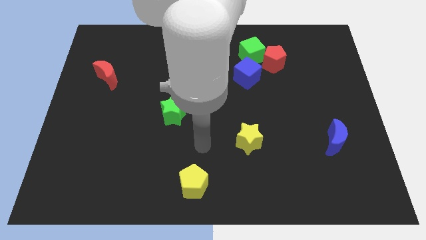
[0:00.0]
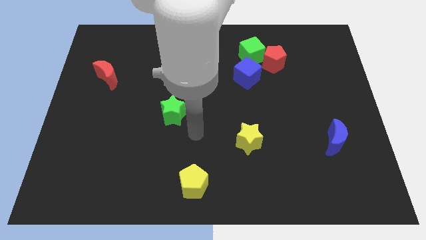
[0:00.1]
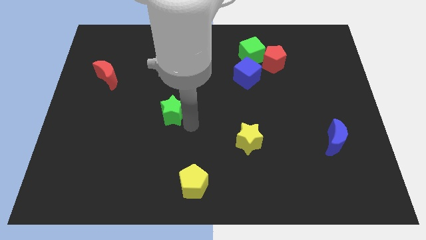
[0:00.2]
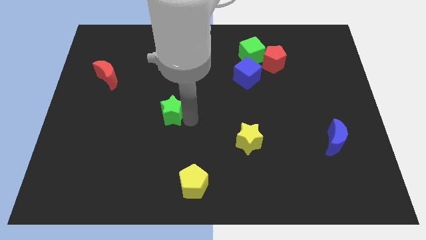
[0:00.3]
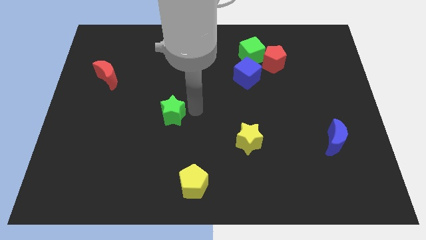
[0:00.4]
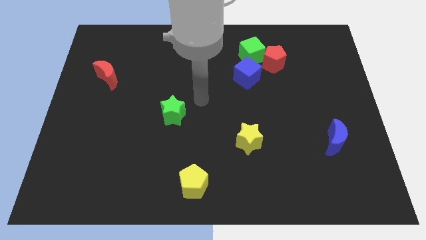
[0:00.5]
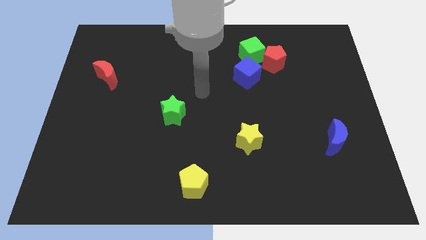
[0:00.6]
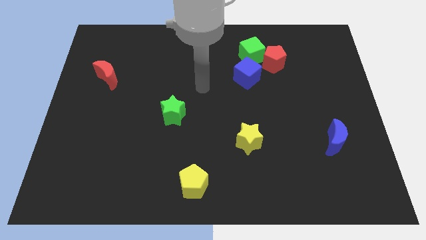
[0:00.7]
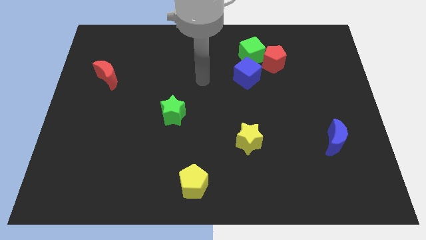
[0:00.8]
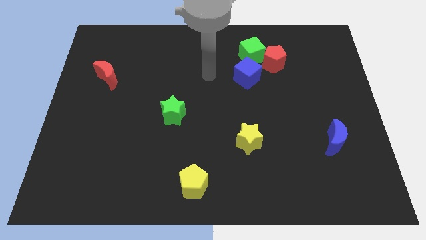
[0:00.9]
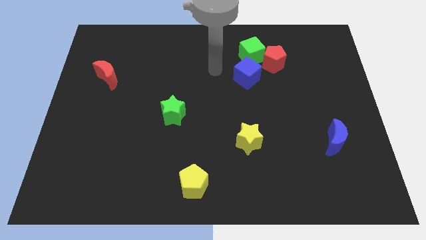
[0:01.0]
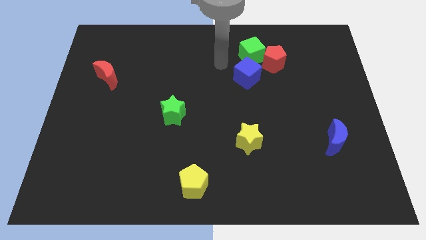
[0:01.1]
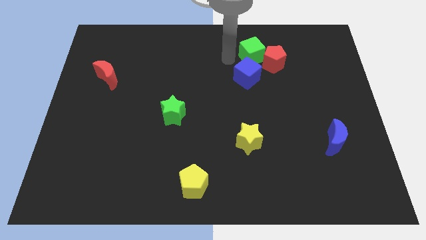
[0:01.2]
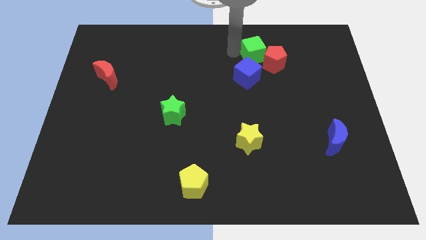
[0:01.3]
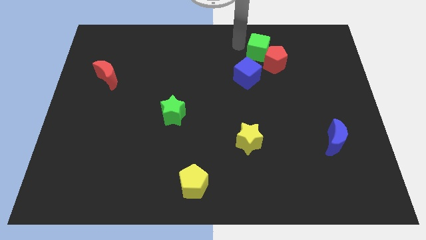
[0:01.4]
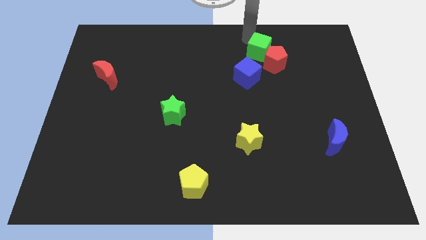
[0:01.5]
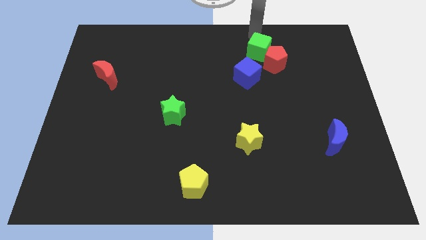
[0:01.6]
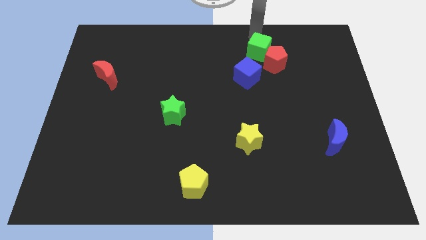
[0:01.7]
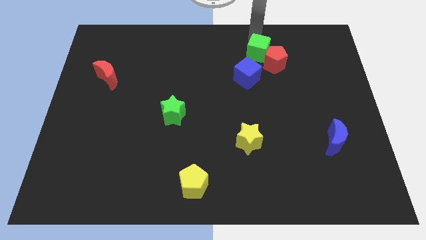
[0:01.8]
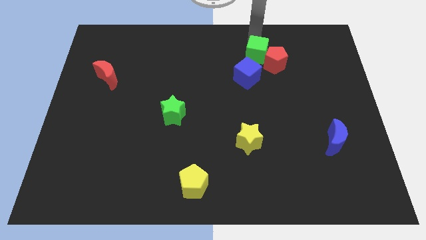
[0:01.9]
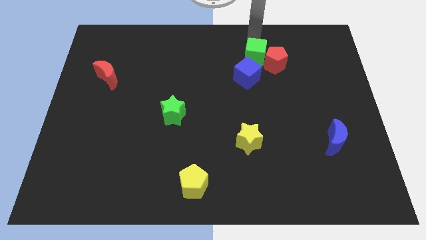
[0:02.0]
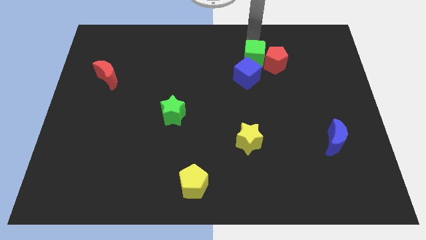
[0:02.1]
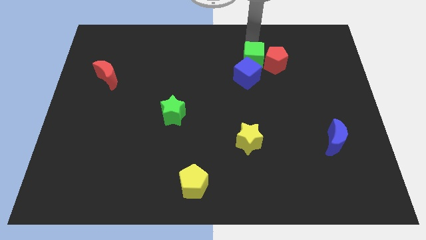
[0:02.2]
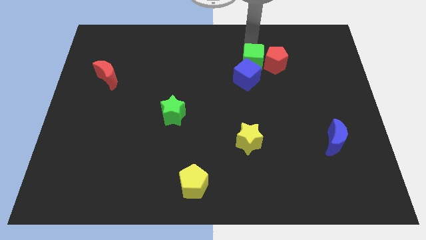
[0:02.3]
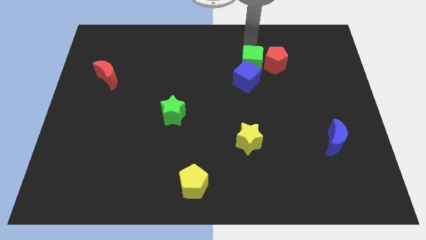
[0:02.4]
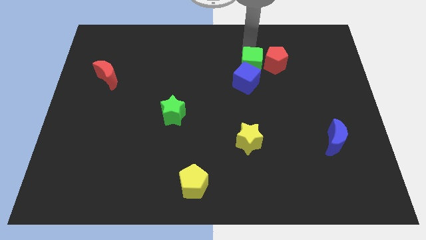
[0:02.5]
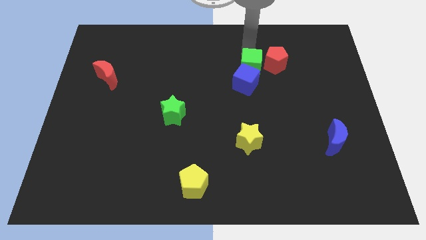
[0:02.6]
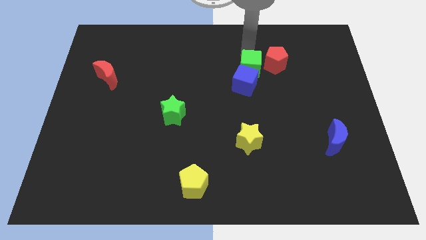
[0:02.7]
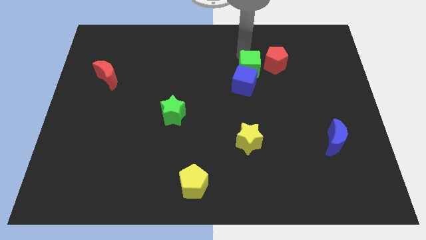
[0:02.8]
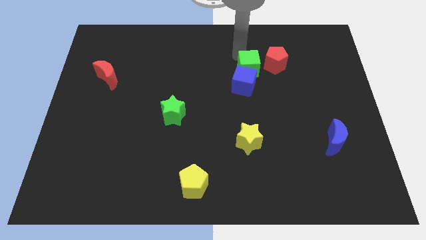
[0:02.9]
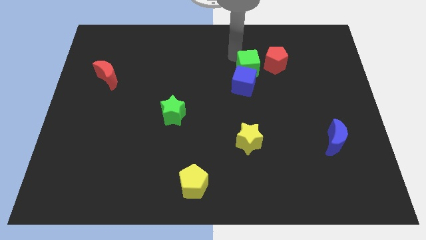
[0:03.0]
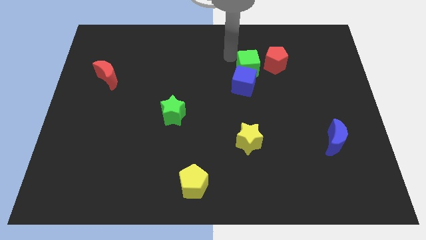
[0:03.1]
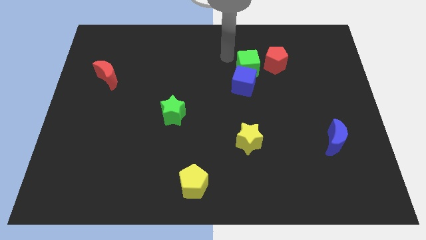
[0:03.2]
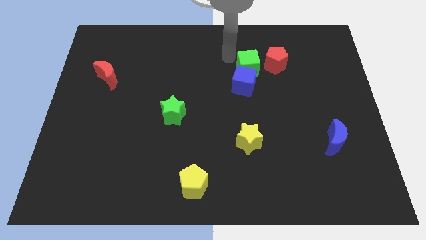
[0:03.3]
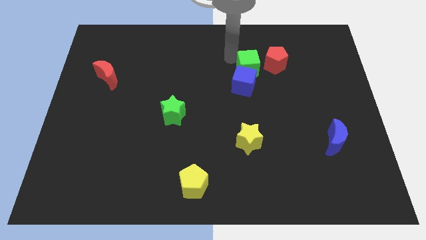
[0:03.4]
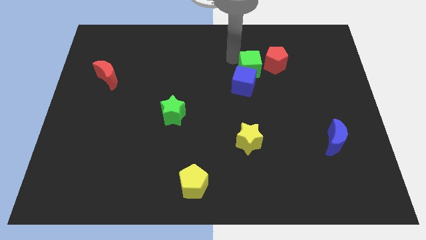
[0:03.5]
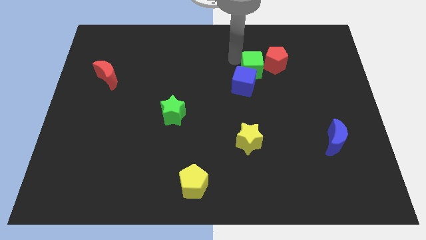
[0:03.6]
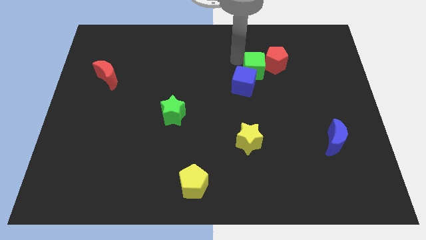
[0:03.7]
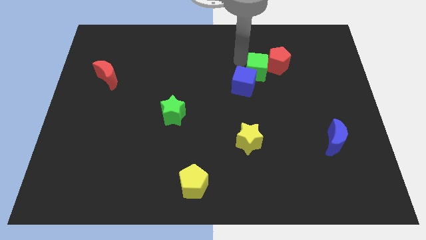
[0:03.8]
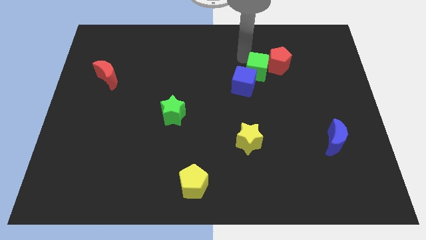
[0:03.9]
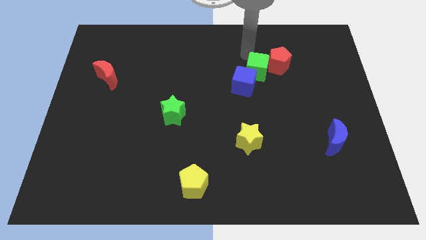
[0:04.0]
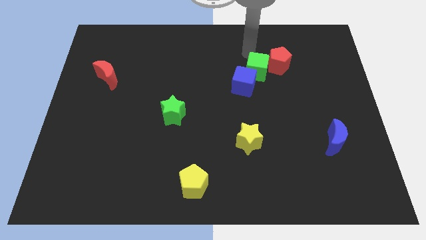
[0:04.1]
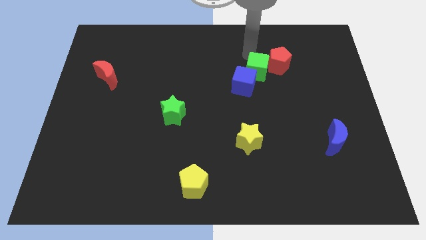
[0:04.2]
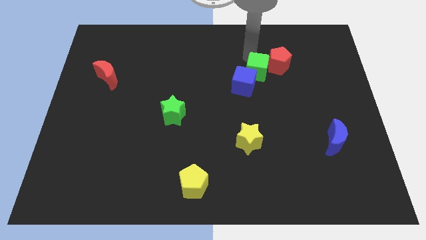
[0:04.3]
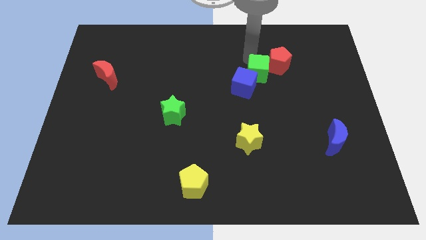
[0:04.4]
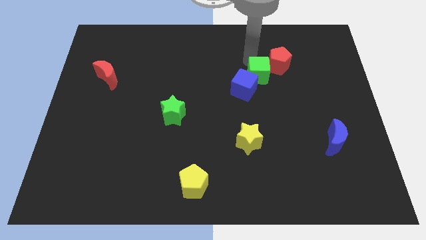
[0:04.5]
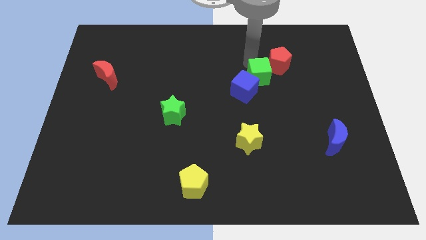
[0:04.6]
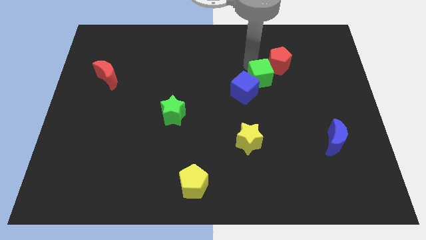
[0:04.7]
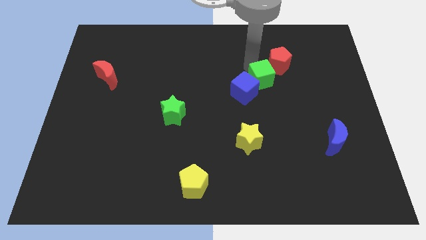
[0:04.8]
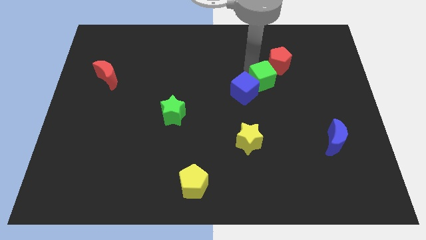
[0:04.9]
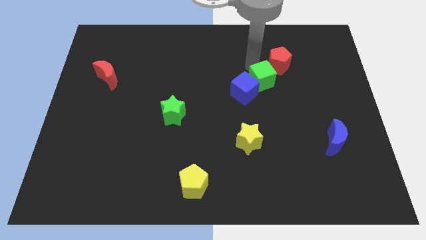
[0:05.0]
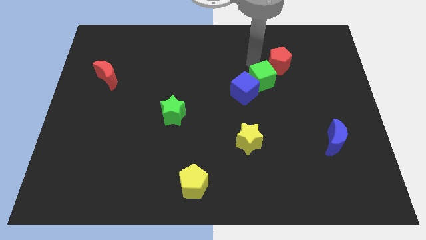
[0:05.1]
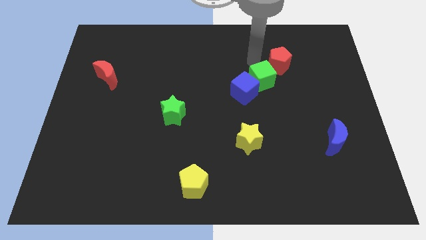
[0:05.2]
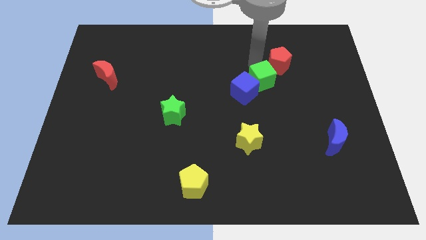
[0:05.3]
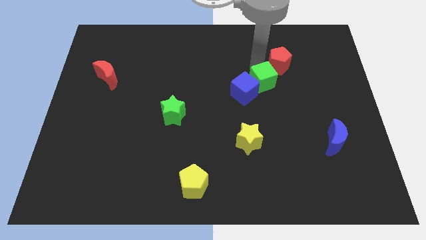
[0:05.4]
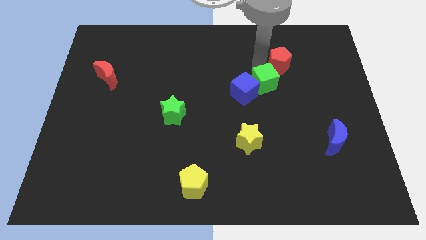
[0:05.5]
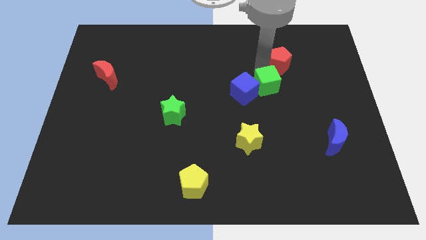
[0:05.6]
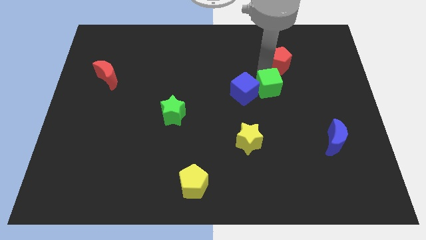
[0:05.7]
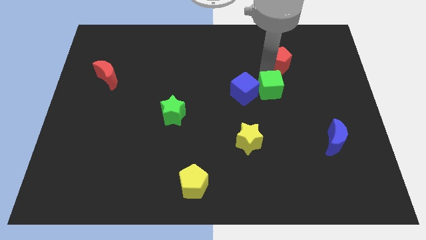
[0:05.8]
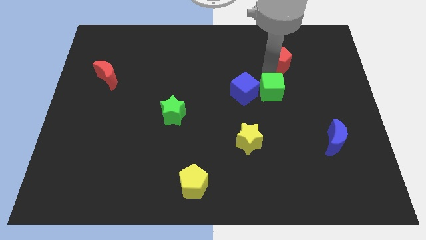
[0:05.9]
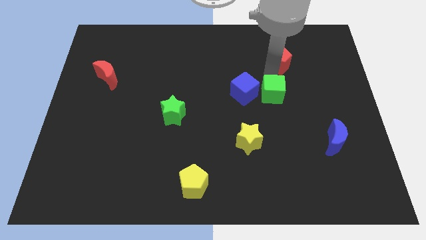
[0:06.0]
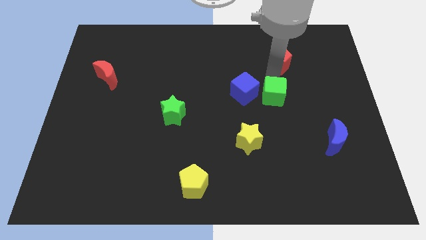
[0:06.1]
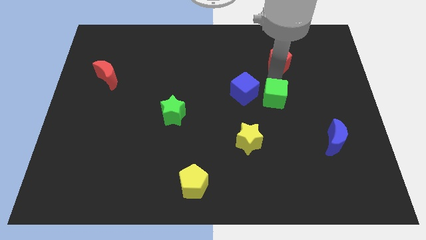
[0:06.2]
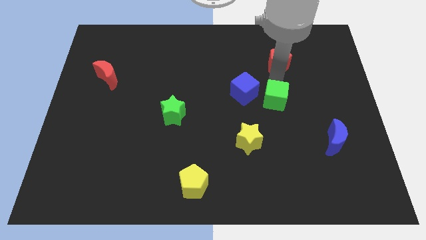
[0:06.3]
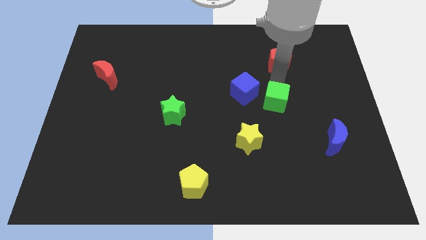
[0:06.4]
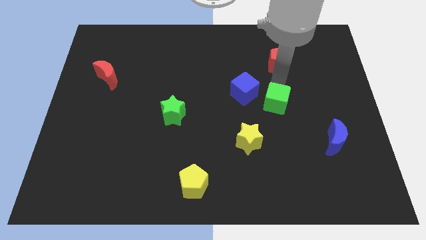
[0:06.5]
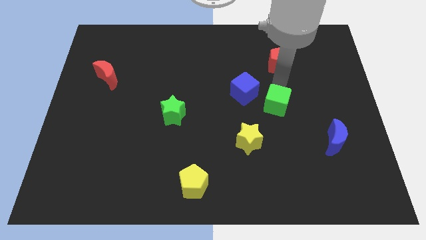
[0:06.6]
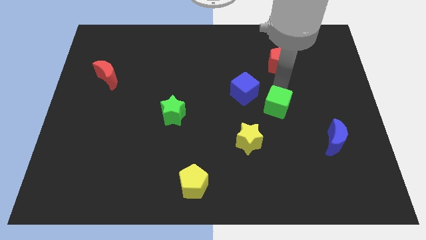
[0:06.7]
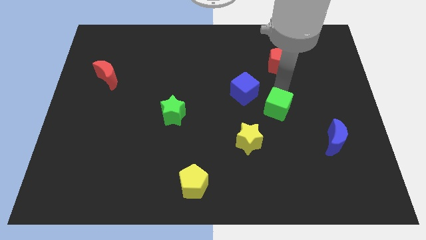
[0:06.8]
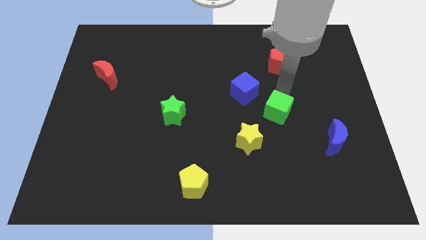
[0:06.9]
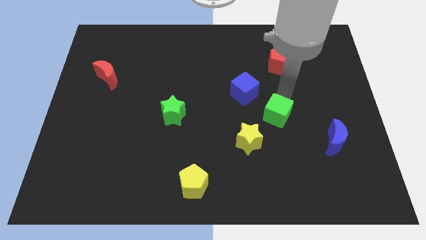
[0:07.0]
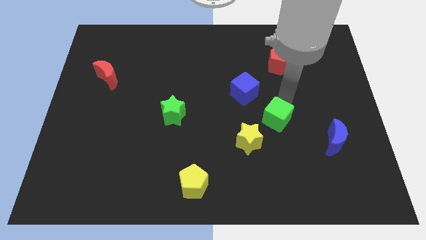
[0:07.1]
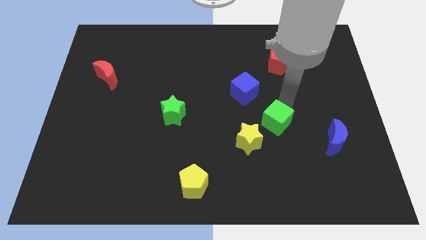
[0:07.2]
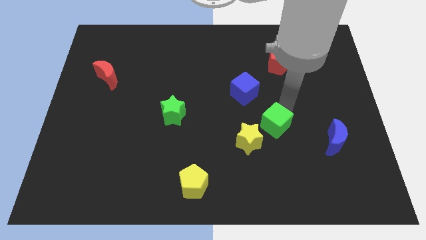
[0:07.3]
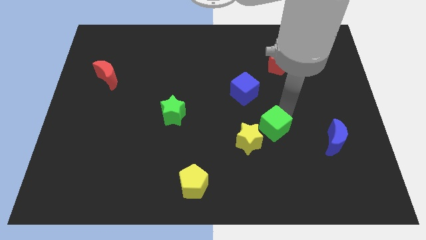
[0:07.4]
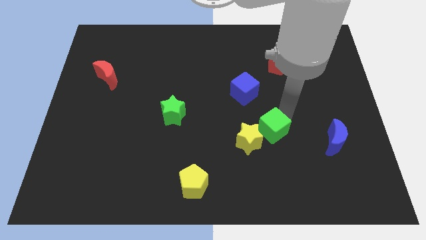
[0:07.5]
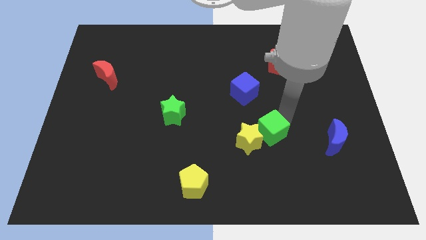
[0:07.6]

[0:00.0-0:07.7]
push the green cube close to the yellow star

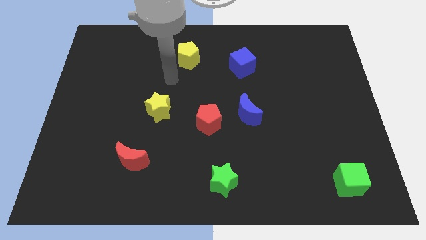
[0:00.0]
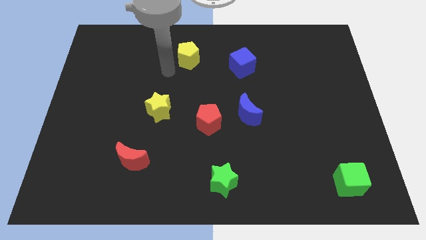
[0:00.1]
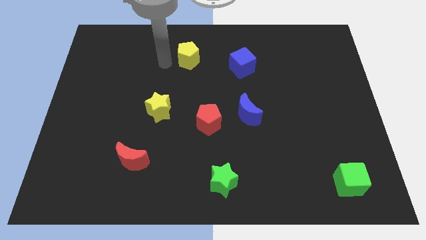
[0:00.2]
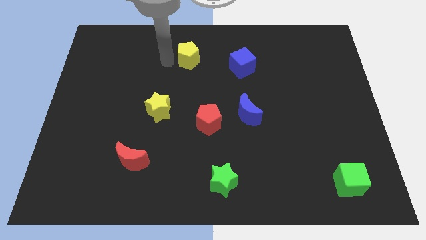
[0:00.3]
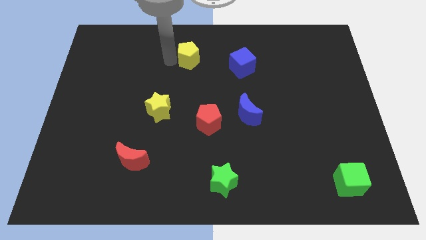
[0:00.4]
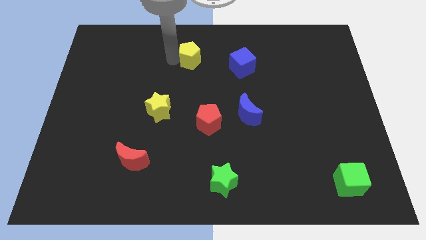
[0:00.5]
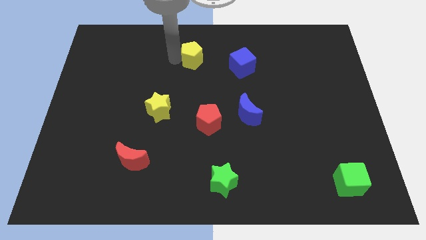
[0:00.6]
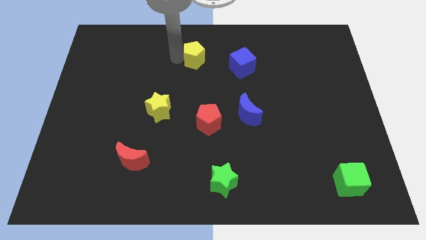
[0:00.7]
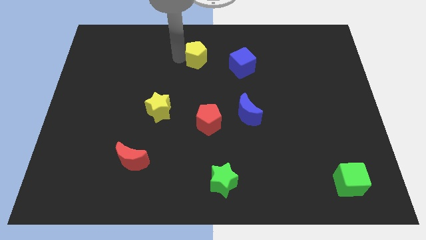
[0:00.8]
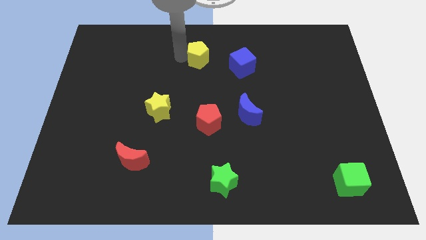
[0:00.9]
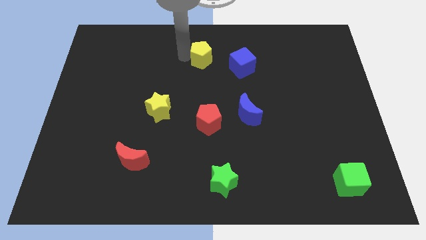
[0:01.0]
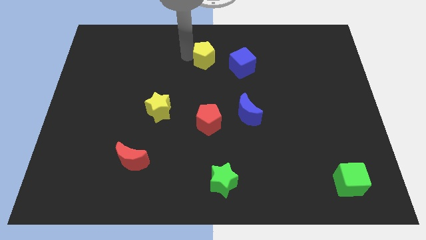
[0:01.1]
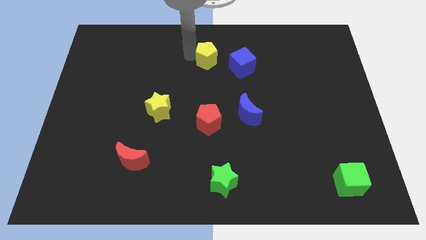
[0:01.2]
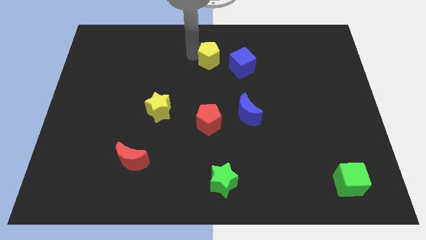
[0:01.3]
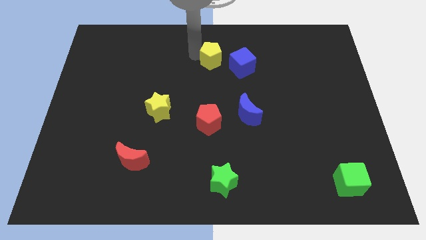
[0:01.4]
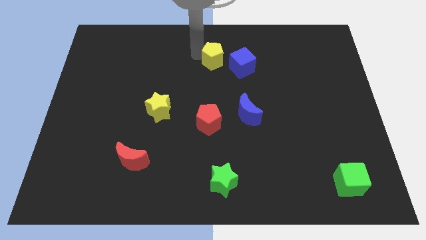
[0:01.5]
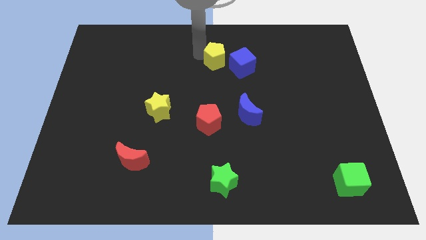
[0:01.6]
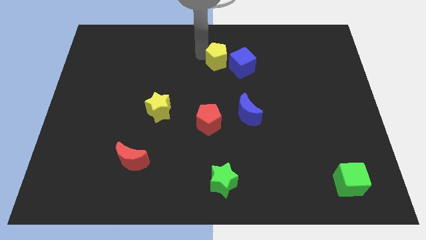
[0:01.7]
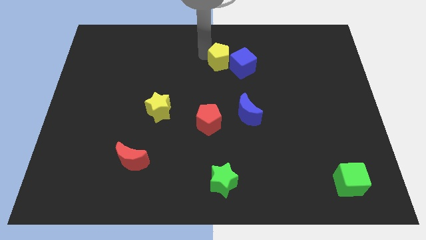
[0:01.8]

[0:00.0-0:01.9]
put the yellow pentagon close to the blue cube
